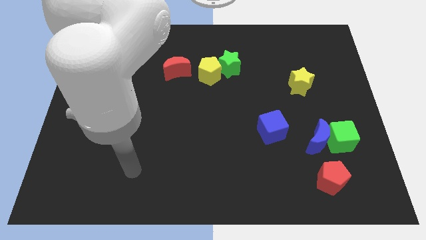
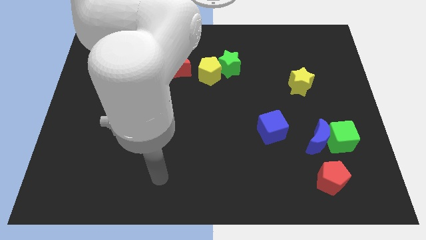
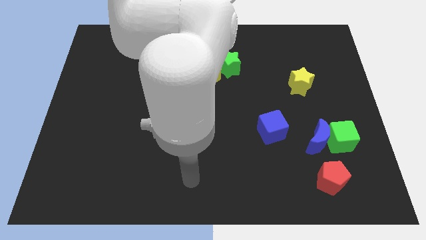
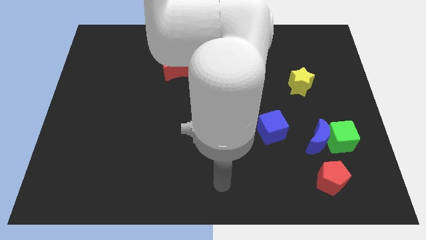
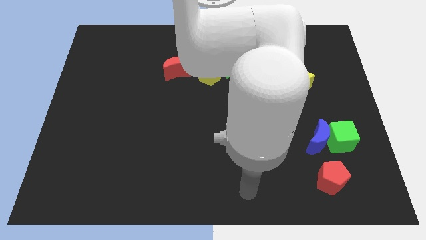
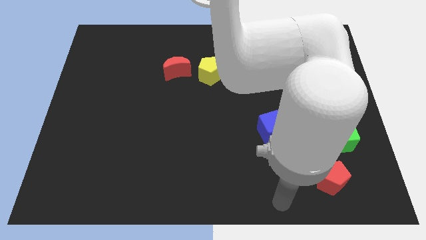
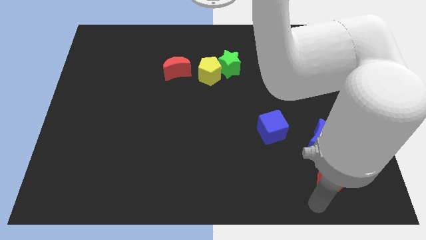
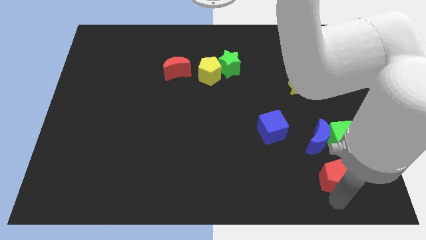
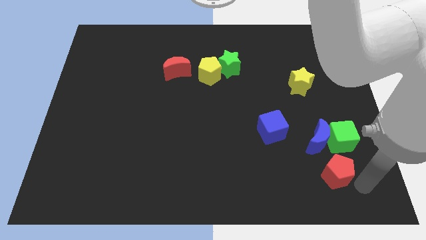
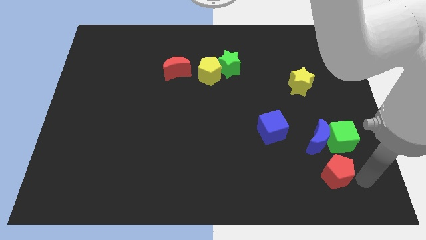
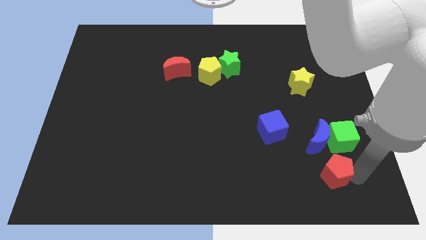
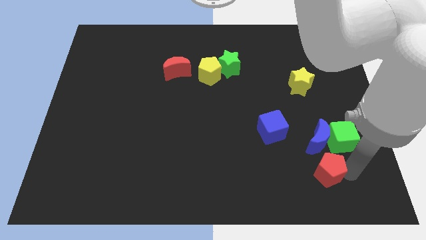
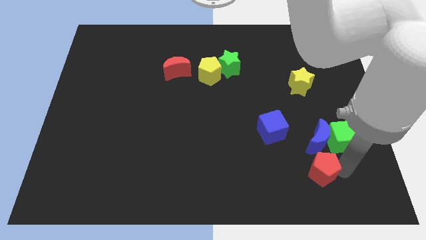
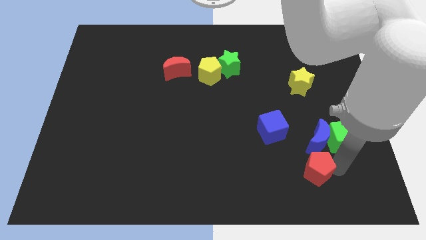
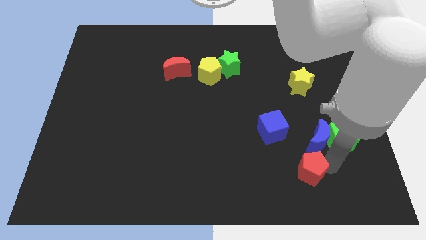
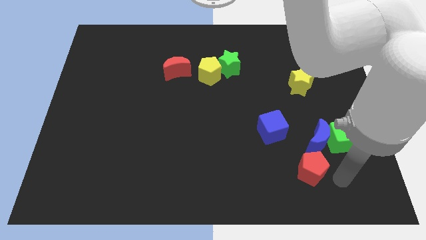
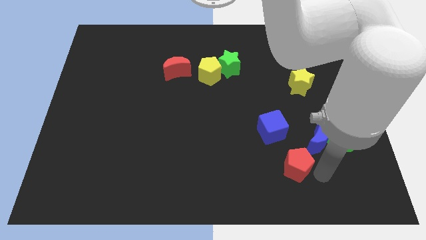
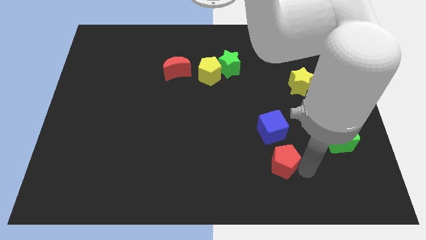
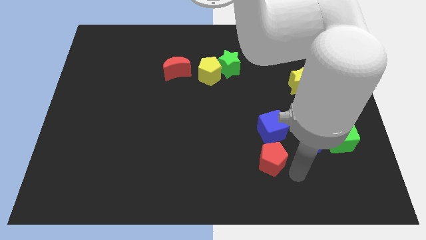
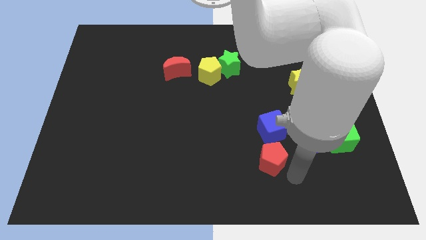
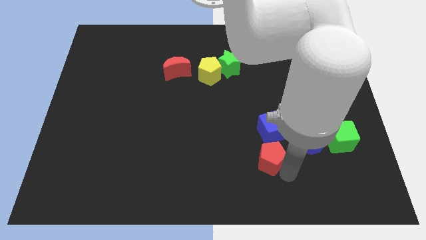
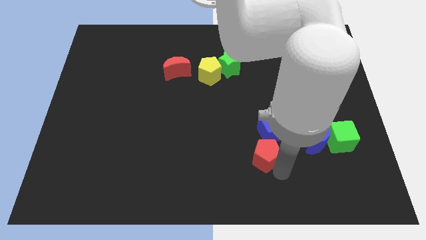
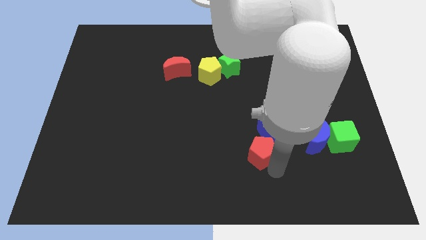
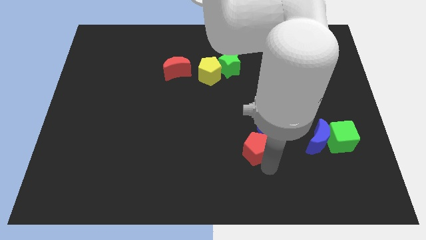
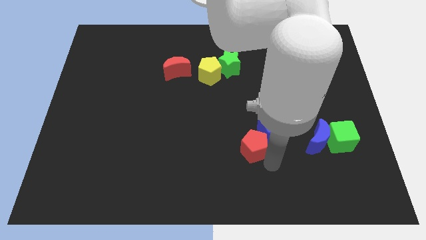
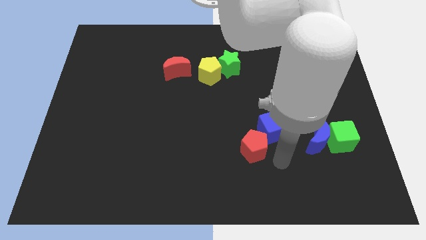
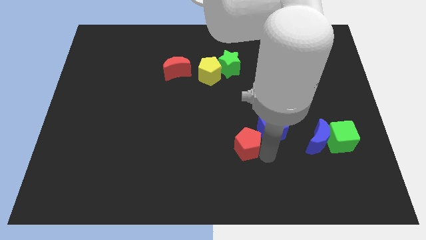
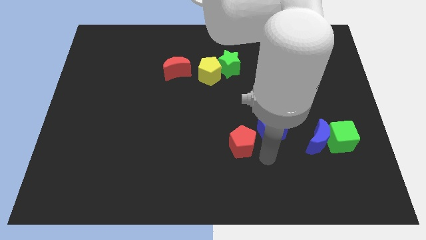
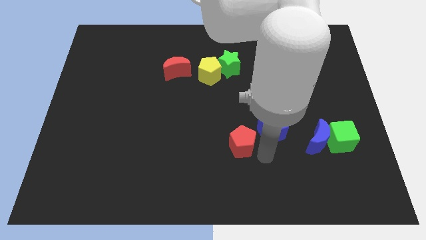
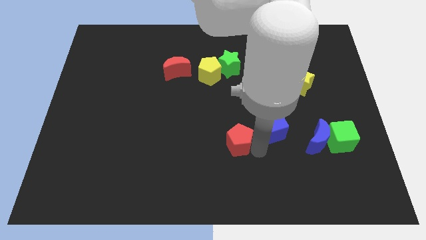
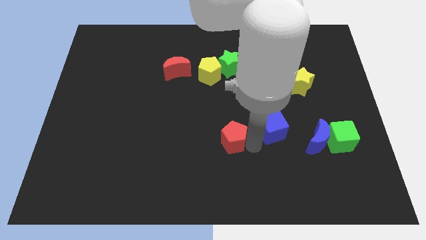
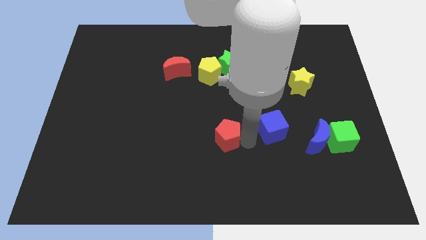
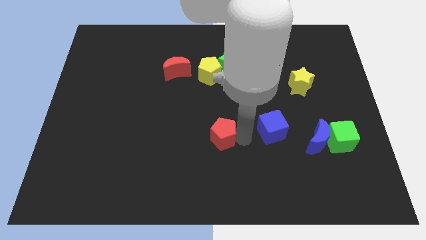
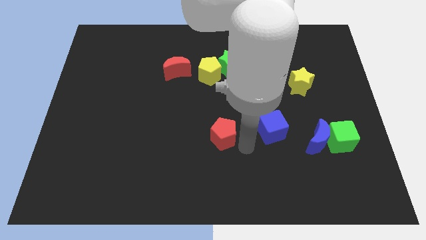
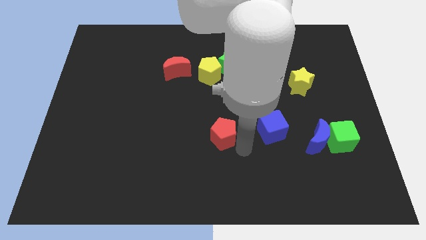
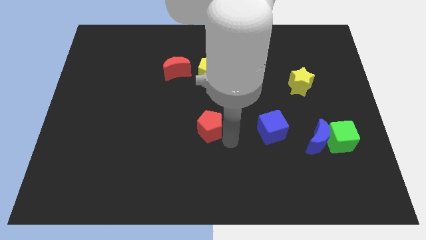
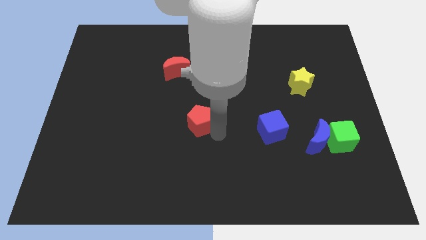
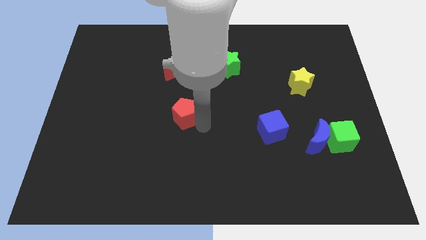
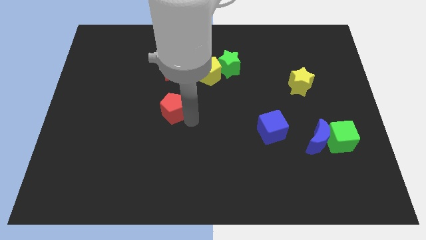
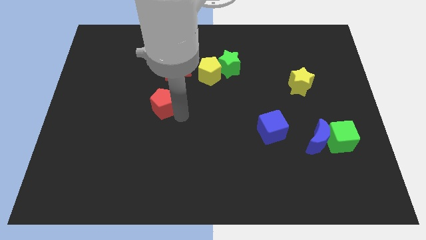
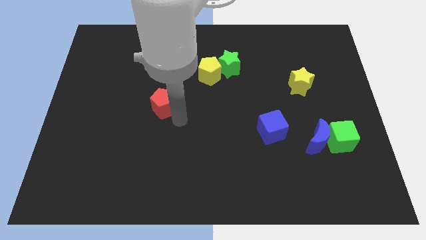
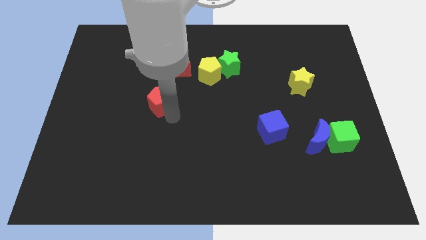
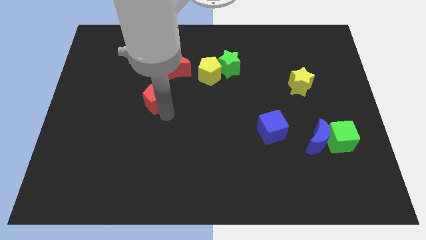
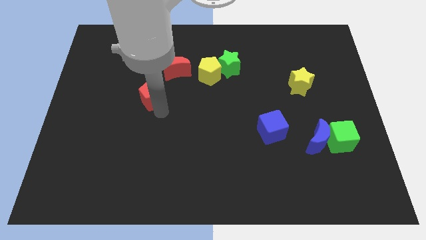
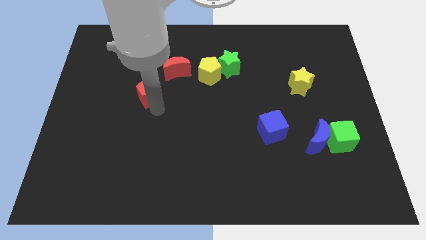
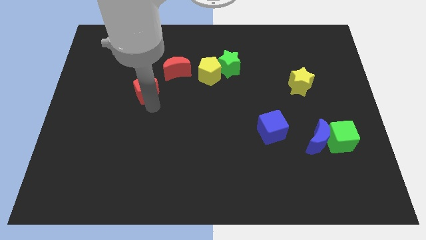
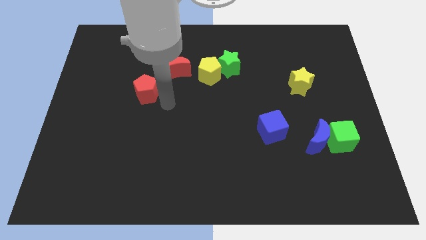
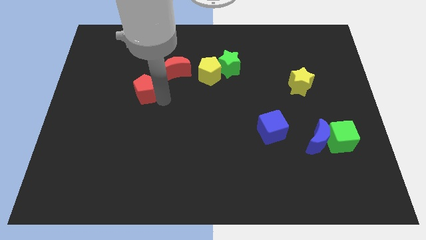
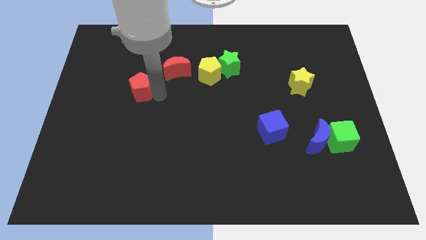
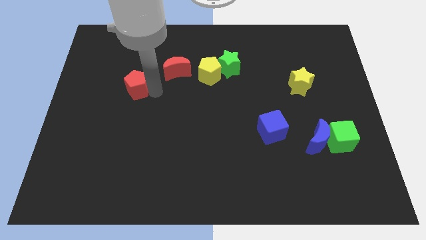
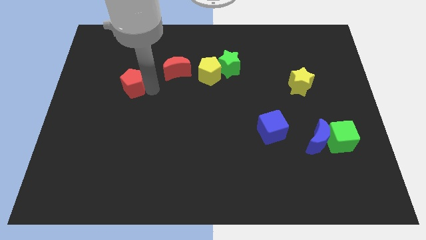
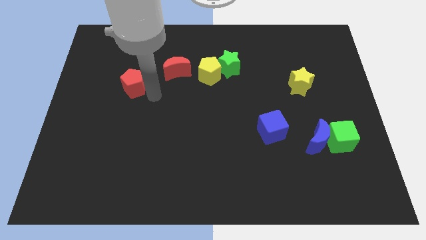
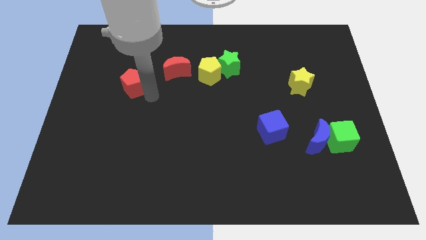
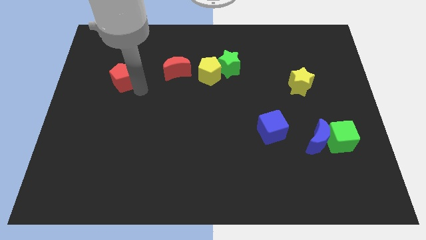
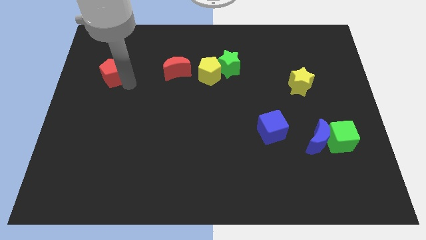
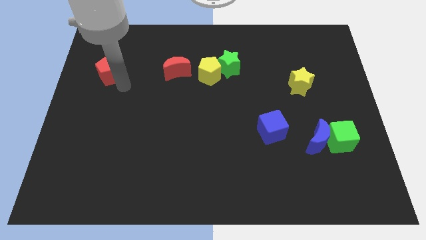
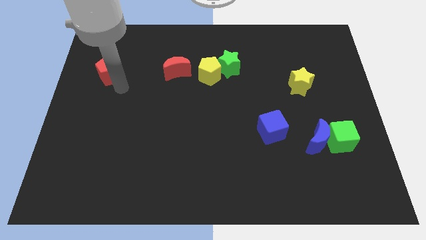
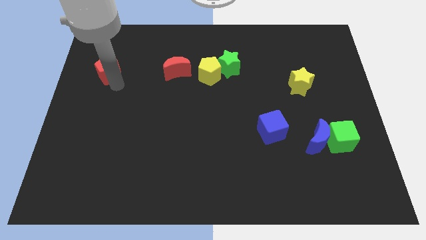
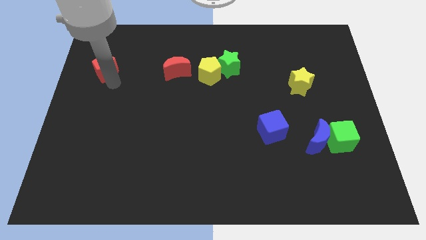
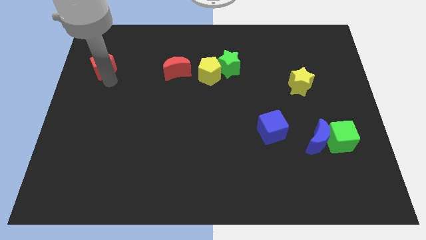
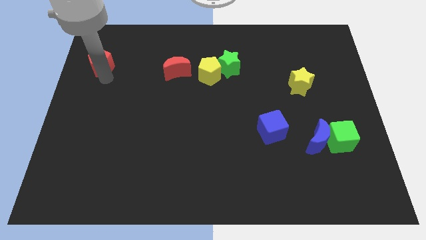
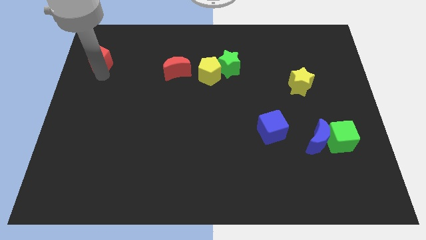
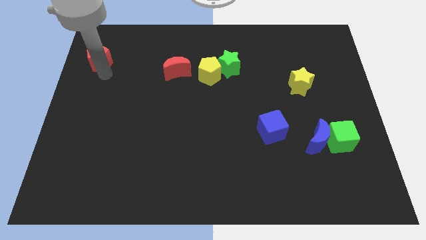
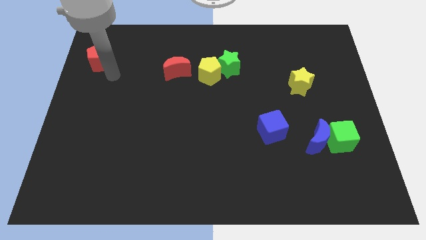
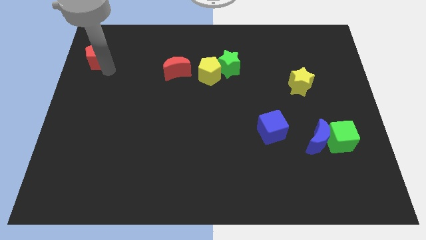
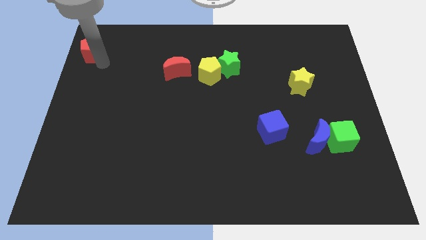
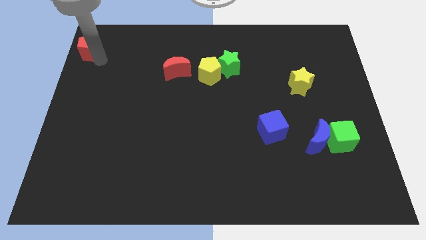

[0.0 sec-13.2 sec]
move the red pentagon to the top left of the board
